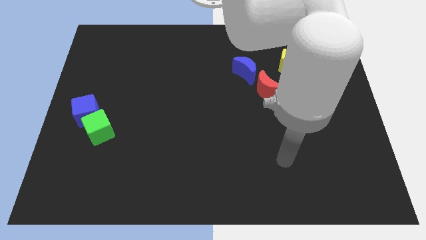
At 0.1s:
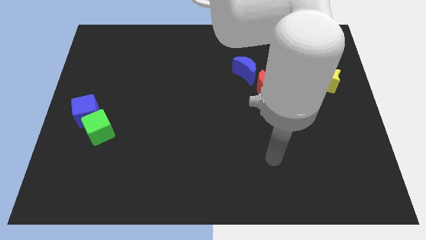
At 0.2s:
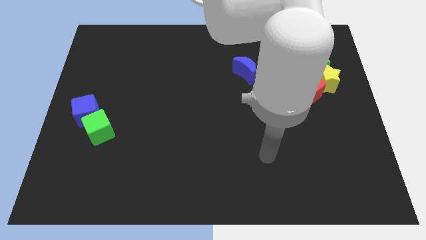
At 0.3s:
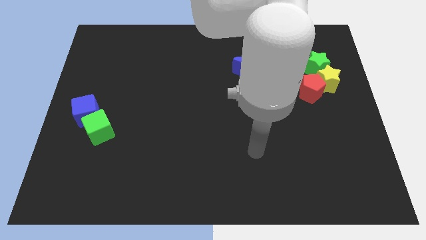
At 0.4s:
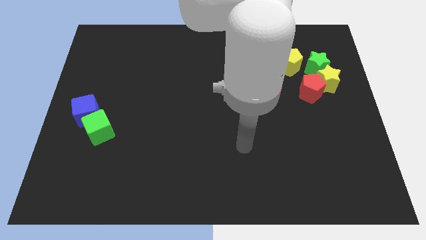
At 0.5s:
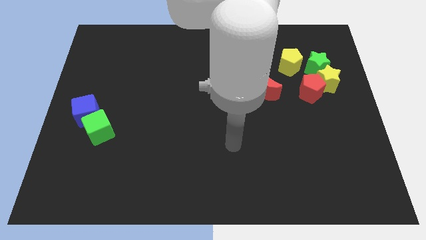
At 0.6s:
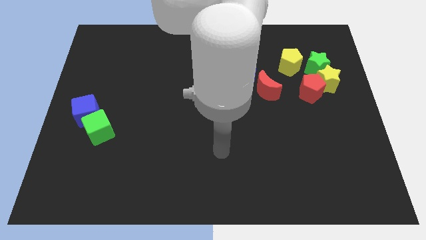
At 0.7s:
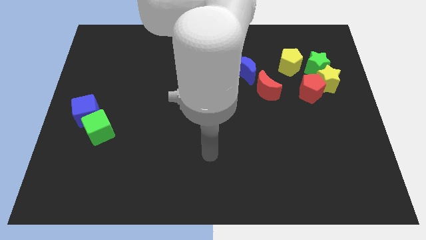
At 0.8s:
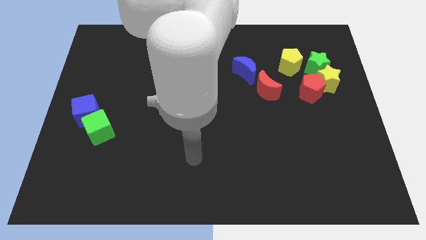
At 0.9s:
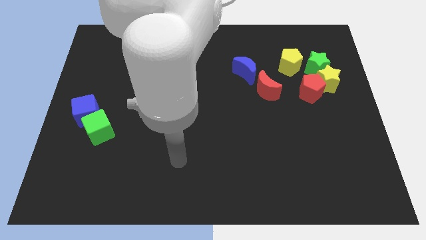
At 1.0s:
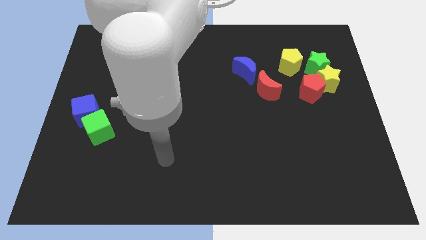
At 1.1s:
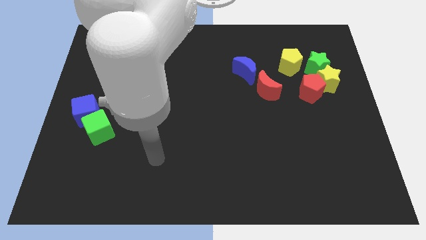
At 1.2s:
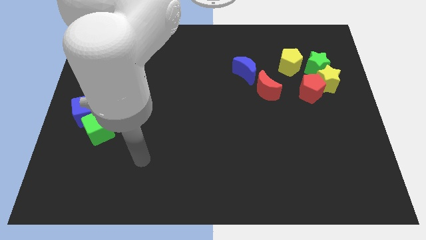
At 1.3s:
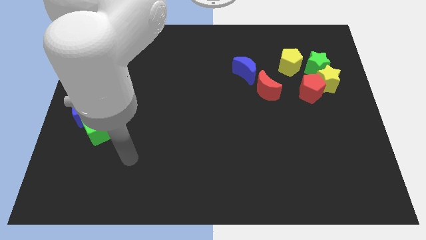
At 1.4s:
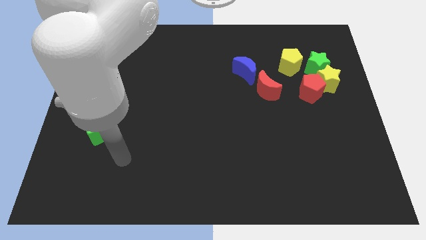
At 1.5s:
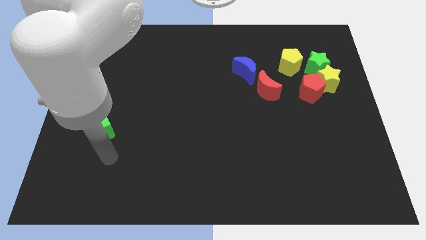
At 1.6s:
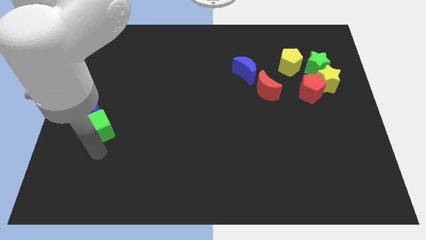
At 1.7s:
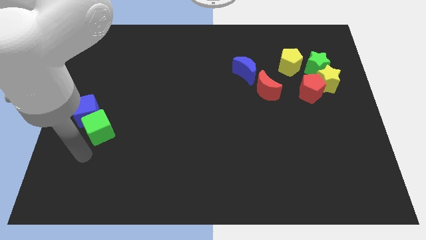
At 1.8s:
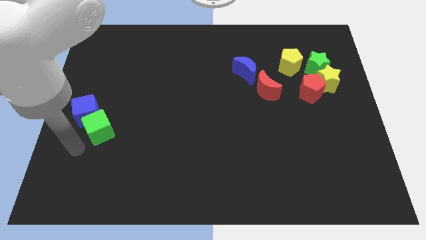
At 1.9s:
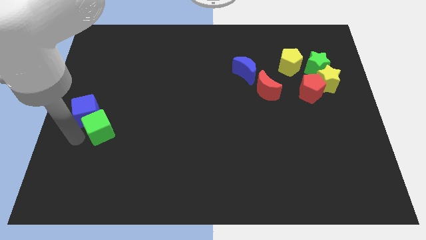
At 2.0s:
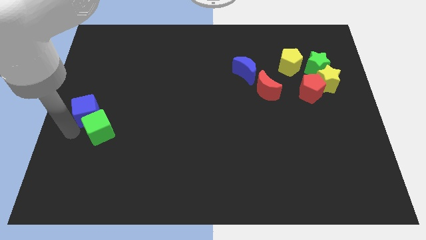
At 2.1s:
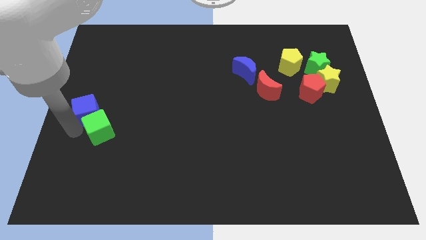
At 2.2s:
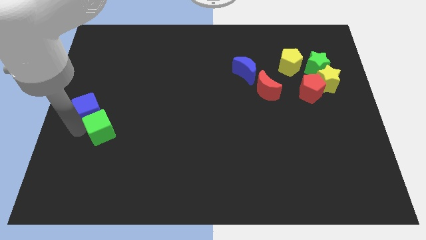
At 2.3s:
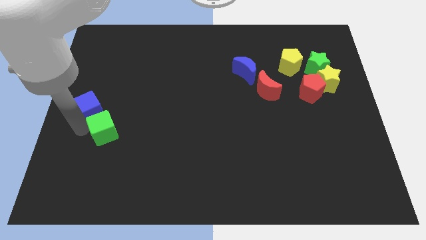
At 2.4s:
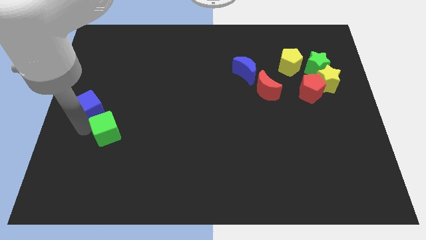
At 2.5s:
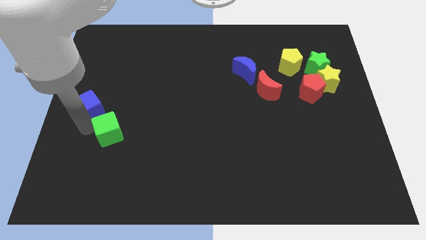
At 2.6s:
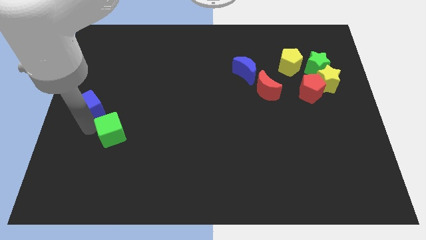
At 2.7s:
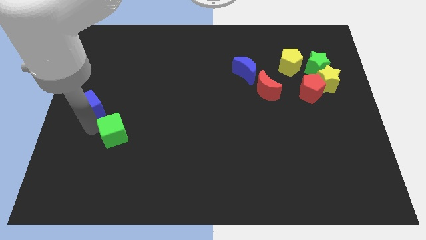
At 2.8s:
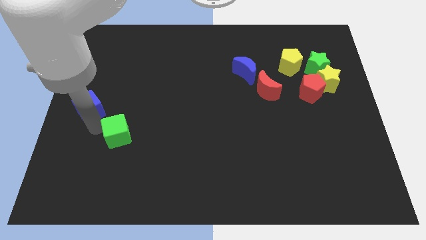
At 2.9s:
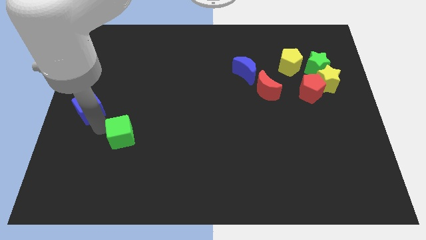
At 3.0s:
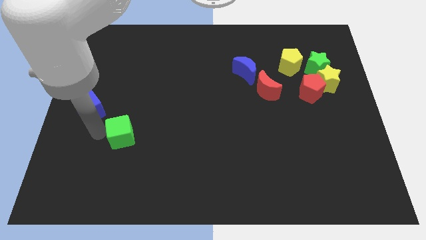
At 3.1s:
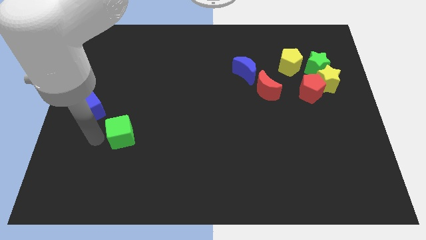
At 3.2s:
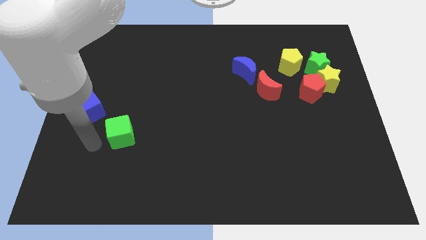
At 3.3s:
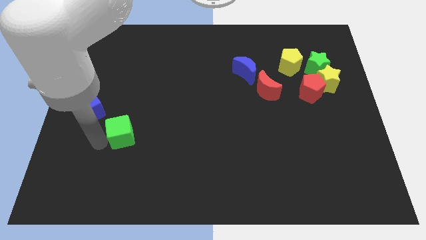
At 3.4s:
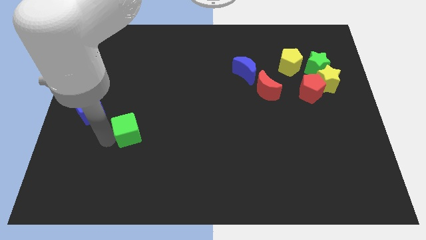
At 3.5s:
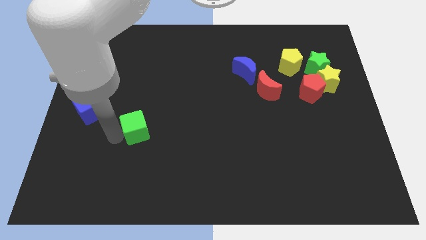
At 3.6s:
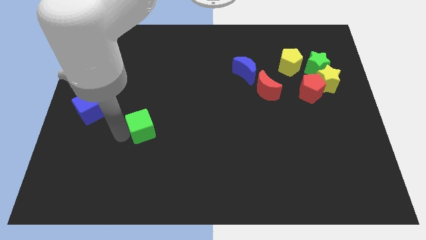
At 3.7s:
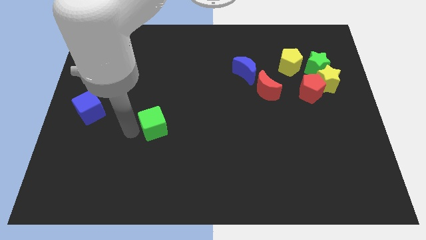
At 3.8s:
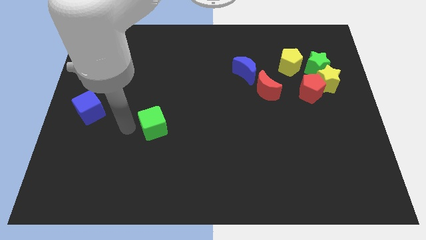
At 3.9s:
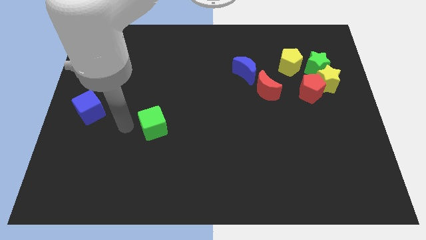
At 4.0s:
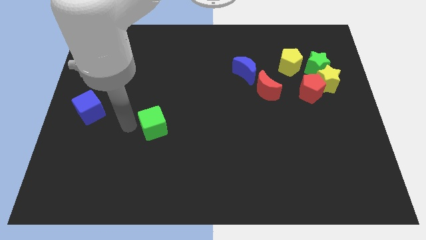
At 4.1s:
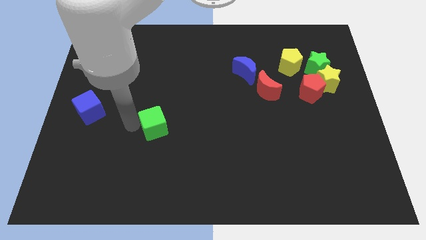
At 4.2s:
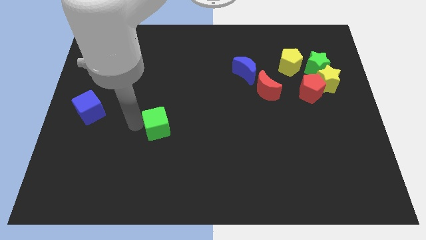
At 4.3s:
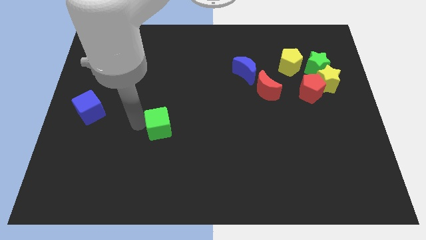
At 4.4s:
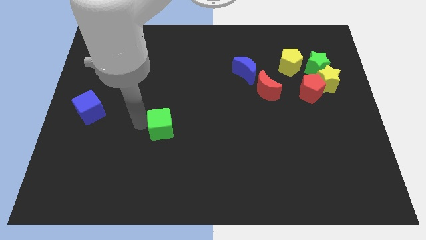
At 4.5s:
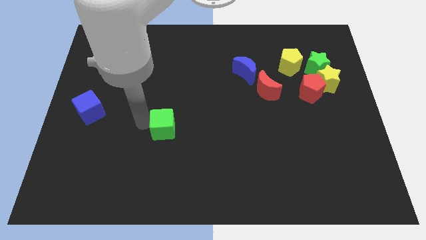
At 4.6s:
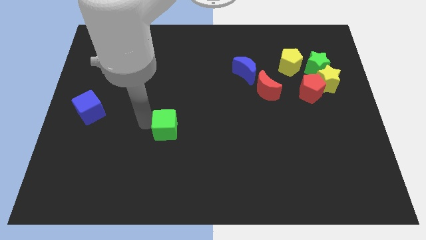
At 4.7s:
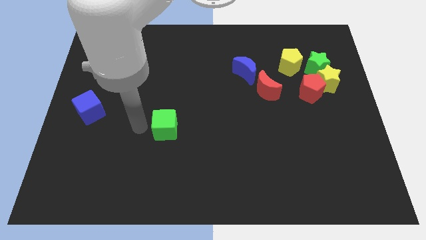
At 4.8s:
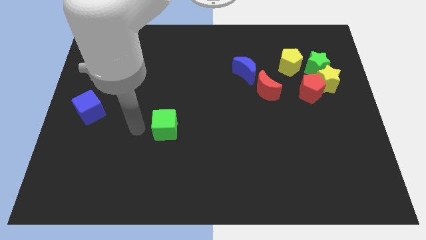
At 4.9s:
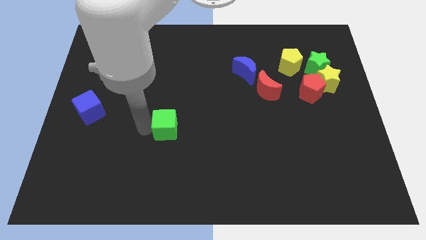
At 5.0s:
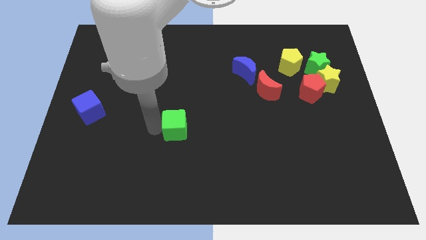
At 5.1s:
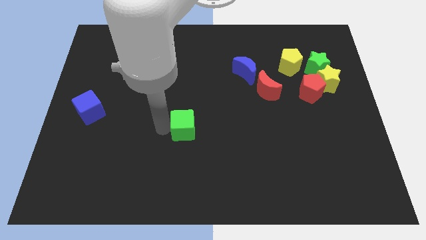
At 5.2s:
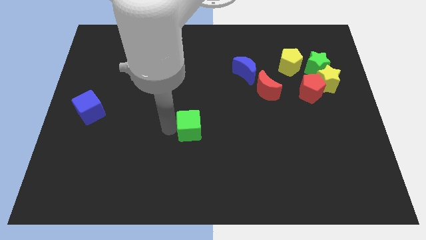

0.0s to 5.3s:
move the green cube to the right

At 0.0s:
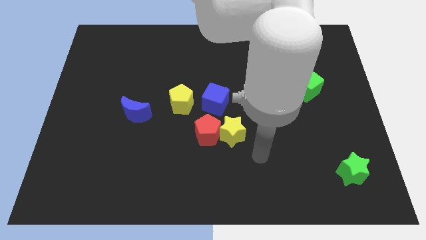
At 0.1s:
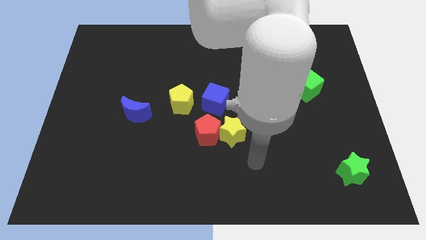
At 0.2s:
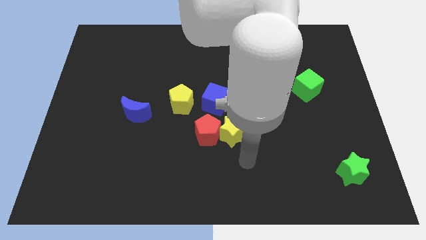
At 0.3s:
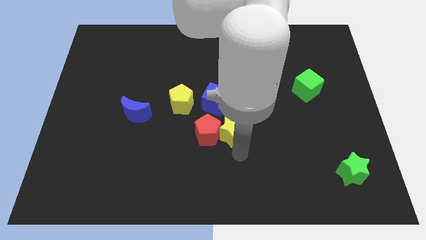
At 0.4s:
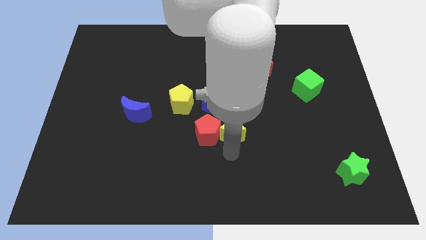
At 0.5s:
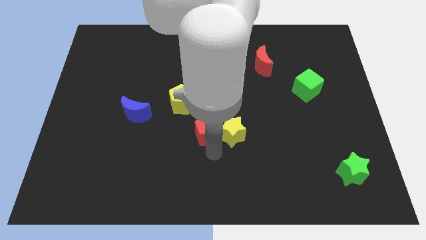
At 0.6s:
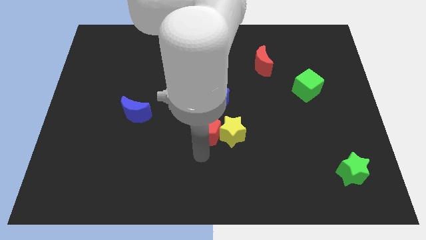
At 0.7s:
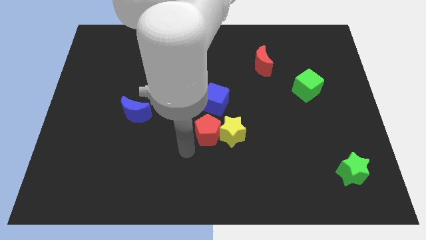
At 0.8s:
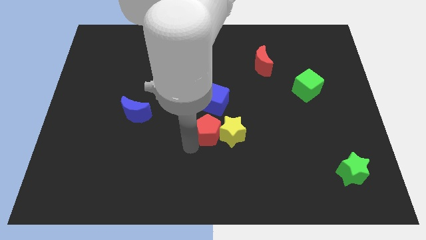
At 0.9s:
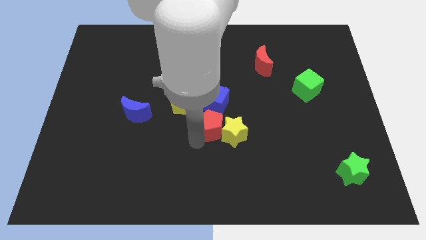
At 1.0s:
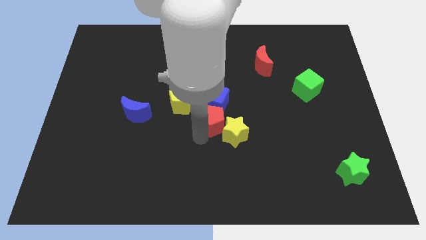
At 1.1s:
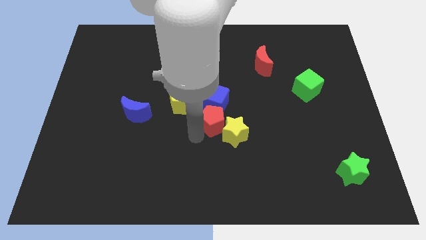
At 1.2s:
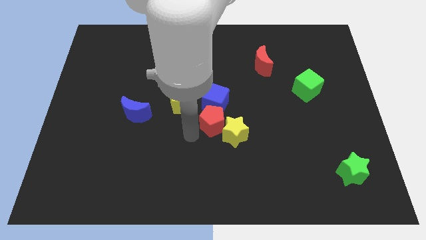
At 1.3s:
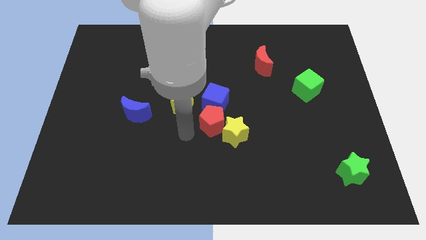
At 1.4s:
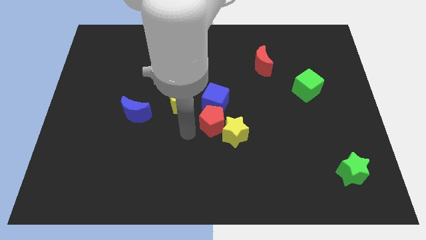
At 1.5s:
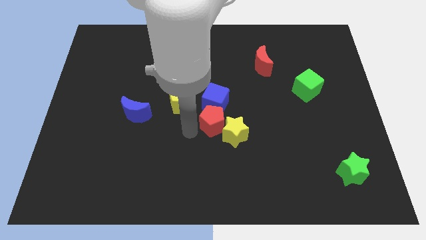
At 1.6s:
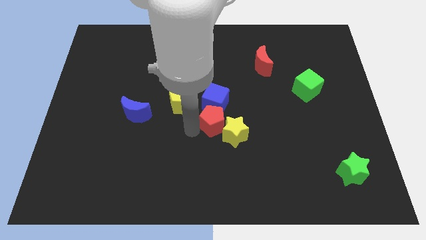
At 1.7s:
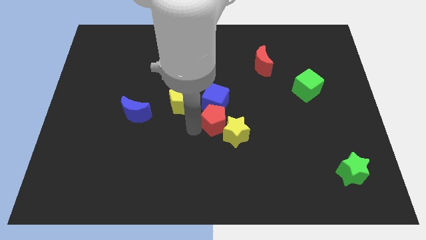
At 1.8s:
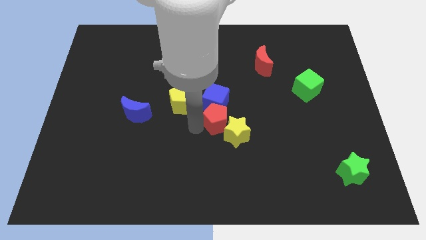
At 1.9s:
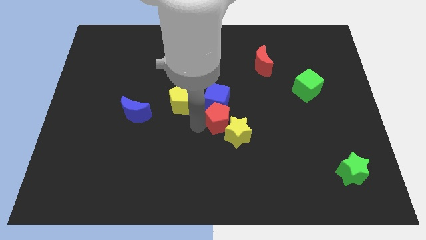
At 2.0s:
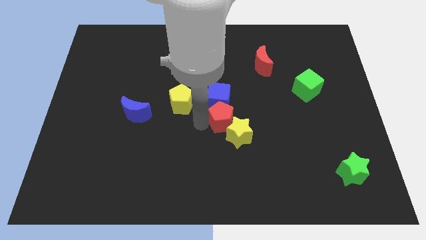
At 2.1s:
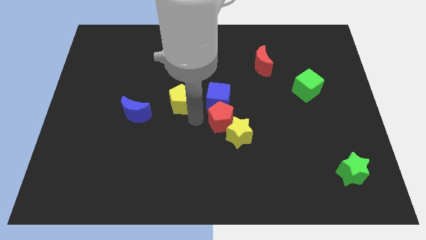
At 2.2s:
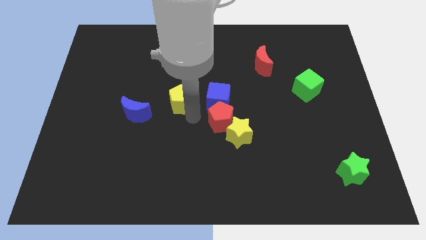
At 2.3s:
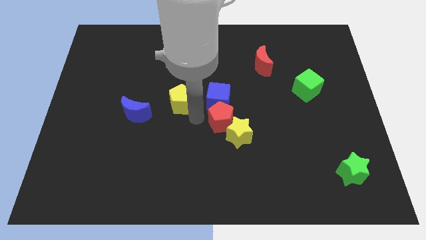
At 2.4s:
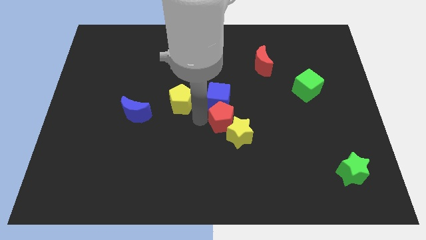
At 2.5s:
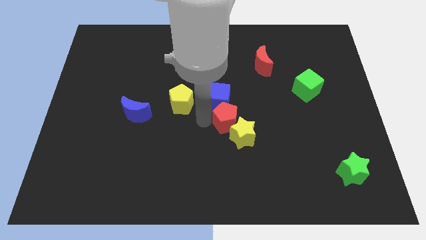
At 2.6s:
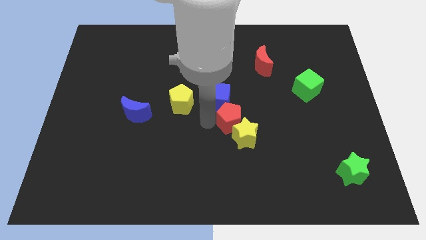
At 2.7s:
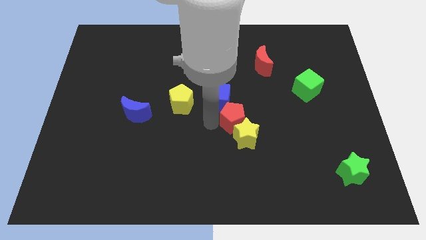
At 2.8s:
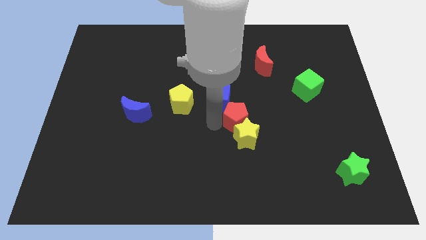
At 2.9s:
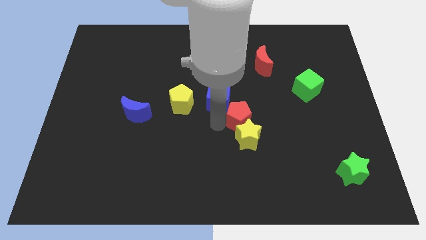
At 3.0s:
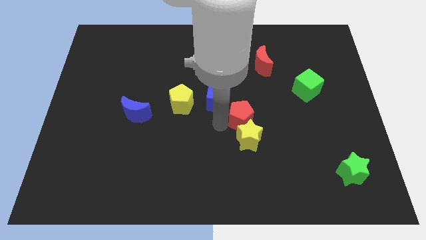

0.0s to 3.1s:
move the red pentagon right slightly

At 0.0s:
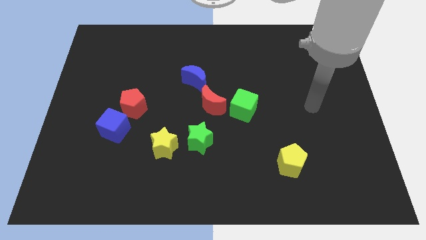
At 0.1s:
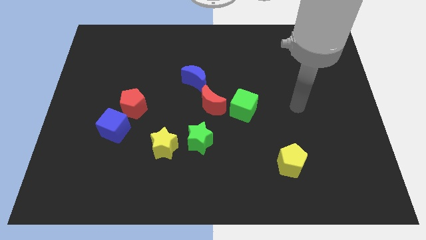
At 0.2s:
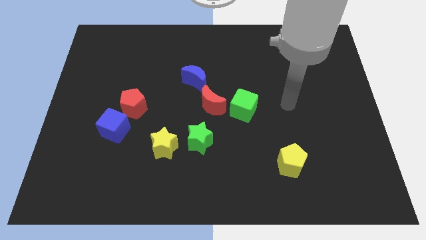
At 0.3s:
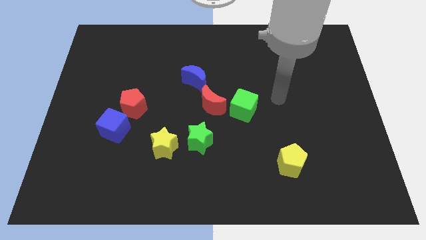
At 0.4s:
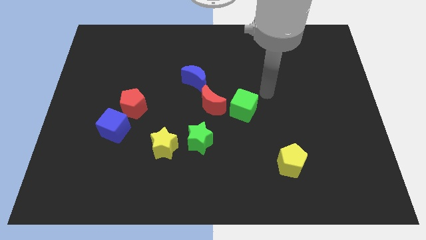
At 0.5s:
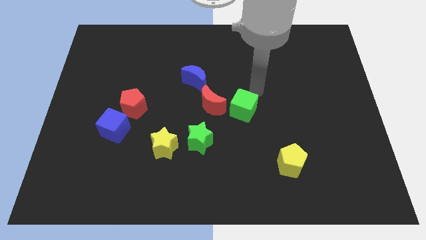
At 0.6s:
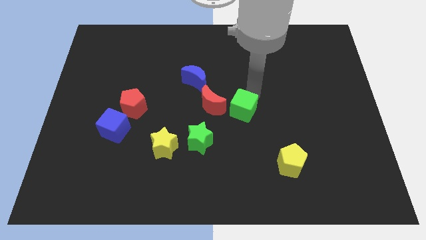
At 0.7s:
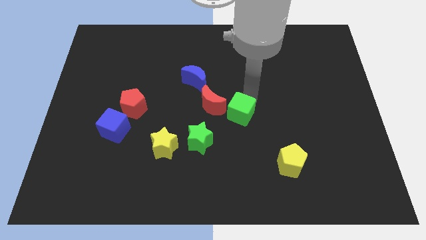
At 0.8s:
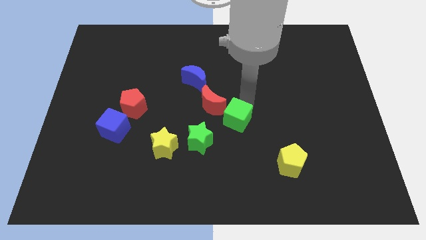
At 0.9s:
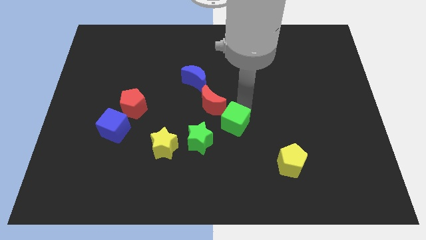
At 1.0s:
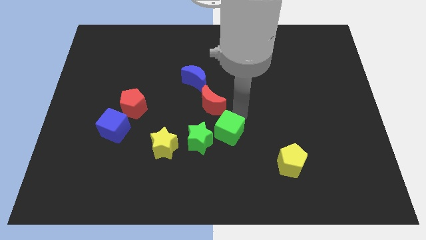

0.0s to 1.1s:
slide the green cube slightly diagonally downwards and to the left
